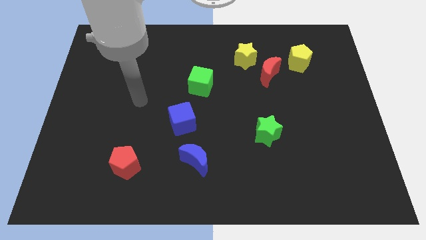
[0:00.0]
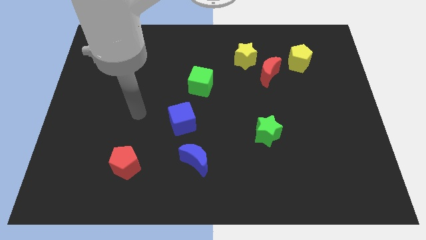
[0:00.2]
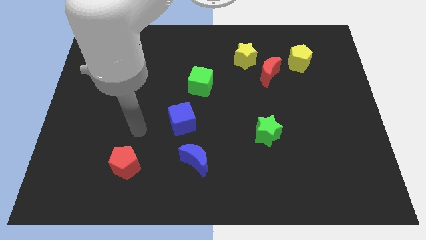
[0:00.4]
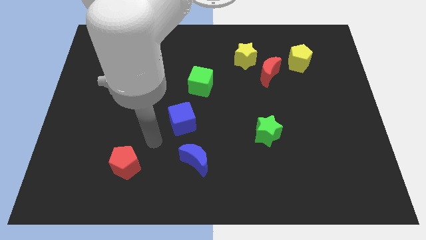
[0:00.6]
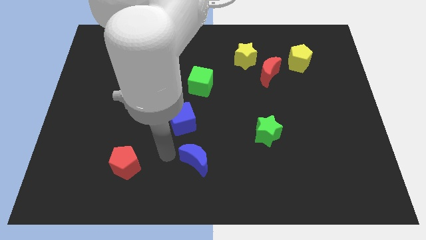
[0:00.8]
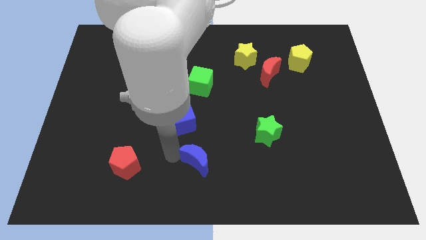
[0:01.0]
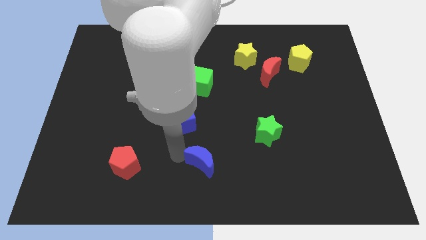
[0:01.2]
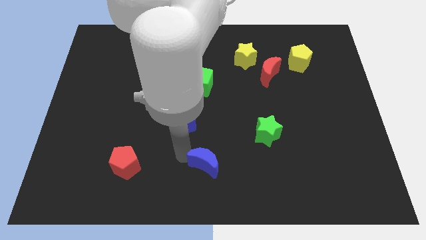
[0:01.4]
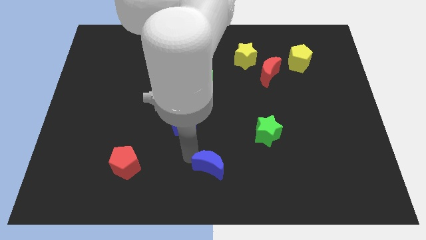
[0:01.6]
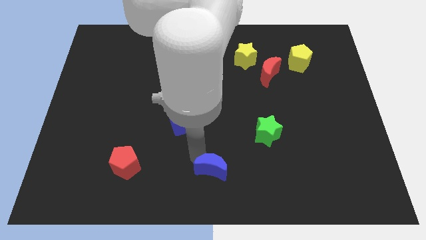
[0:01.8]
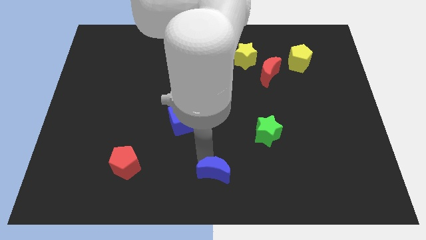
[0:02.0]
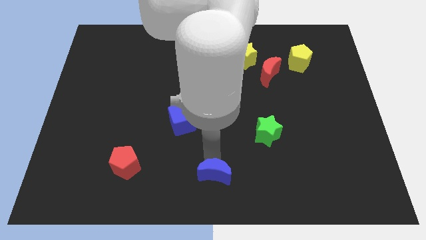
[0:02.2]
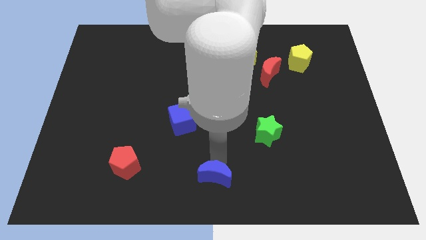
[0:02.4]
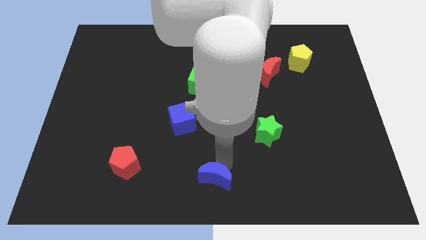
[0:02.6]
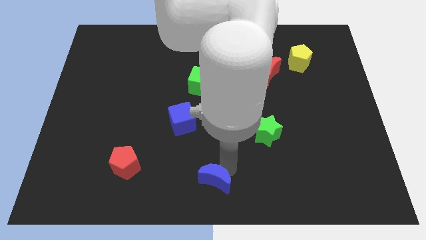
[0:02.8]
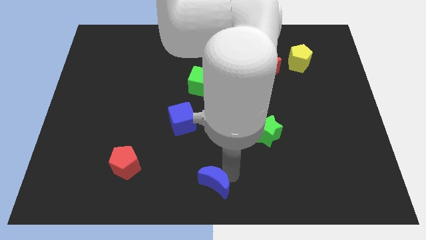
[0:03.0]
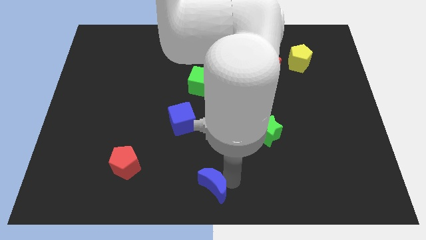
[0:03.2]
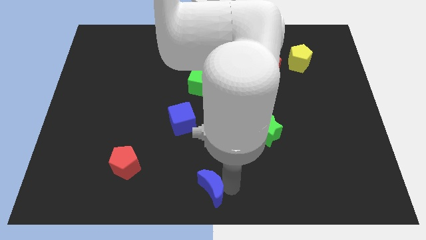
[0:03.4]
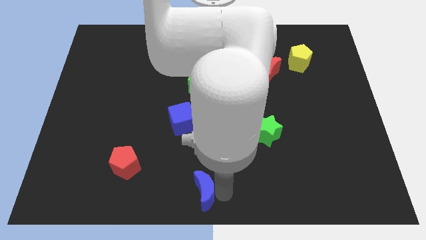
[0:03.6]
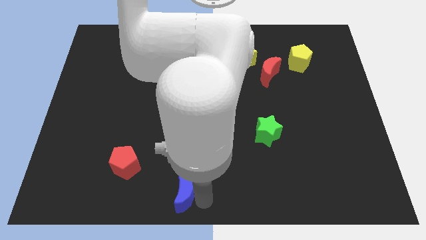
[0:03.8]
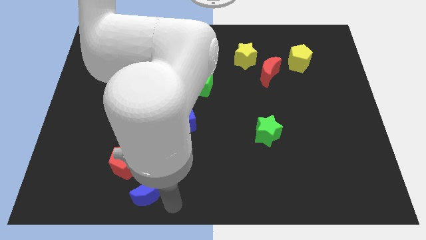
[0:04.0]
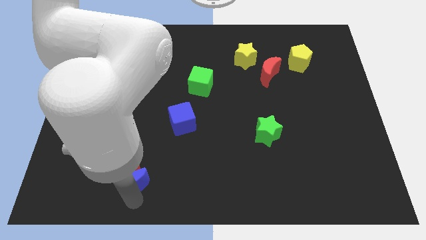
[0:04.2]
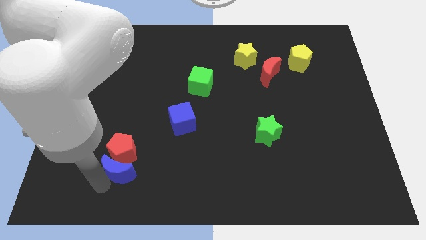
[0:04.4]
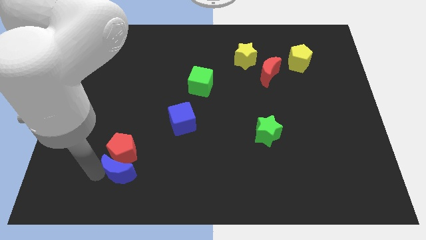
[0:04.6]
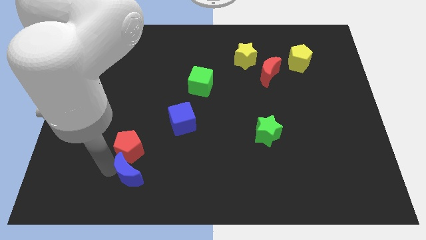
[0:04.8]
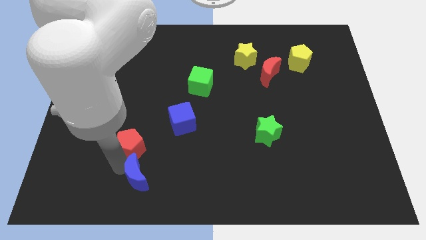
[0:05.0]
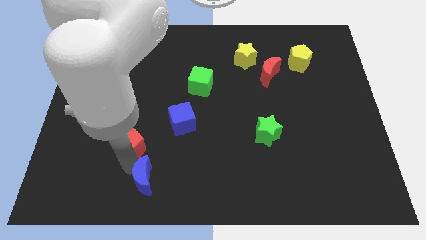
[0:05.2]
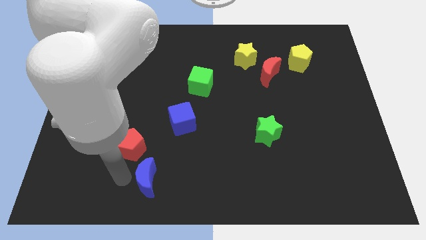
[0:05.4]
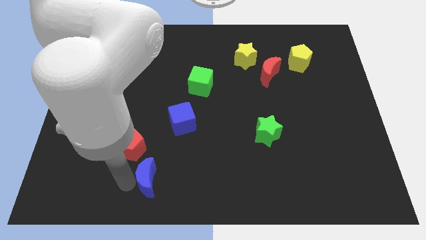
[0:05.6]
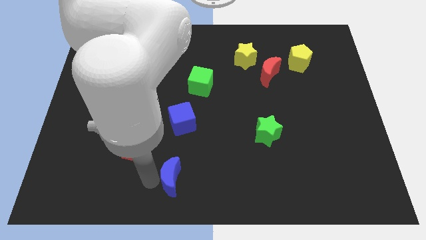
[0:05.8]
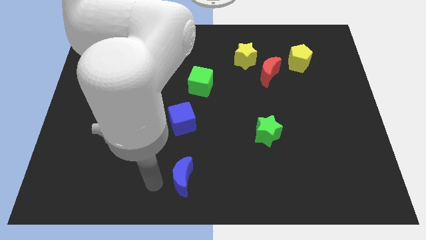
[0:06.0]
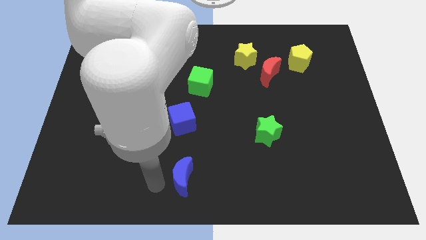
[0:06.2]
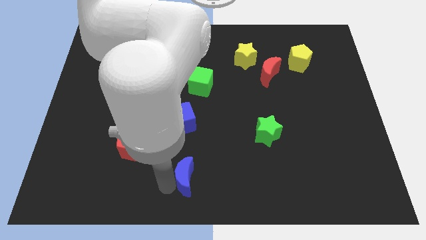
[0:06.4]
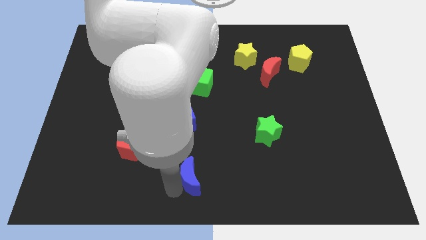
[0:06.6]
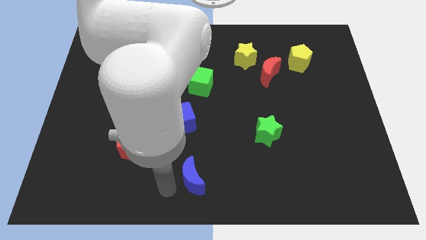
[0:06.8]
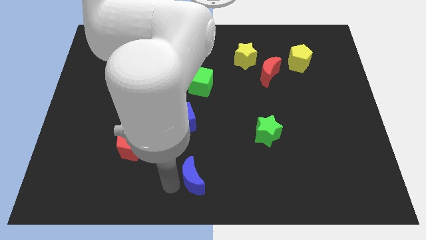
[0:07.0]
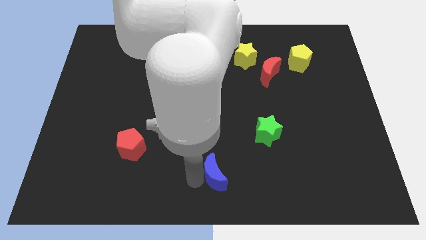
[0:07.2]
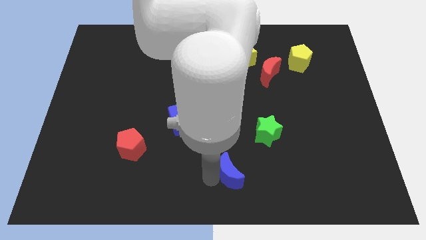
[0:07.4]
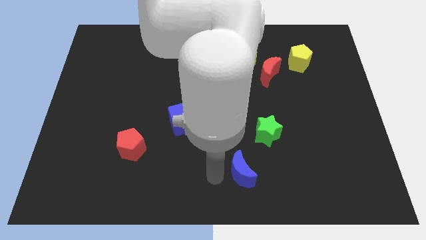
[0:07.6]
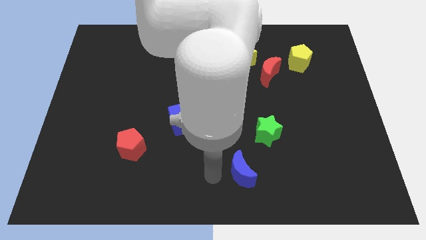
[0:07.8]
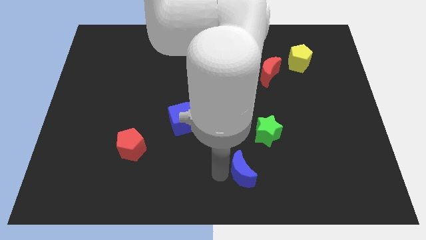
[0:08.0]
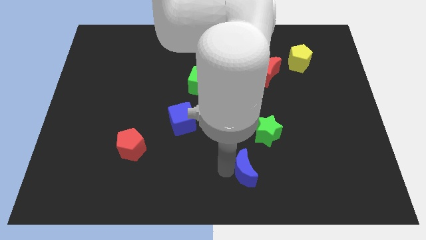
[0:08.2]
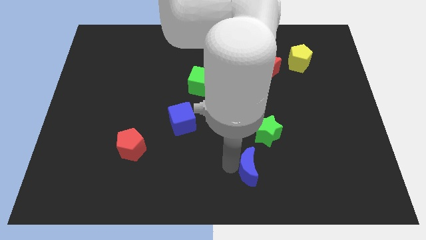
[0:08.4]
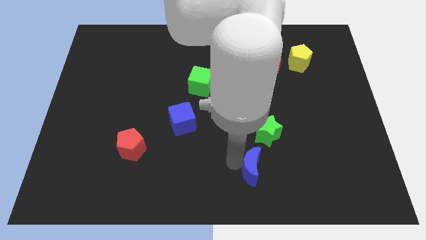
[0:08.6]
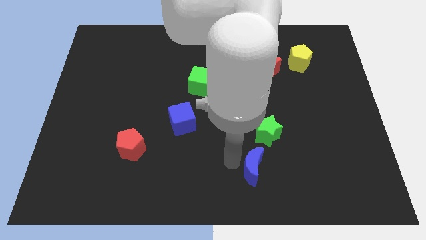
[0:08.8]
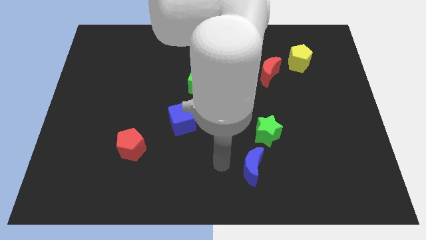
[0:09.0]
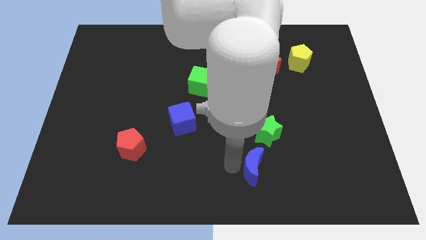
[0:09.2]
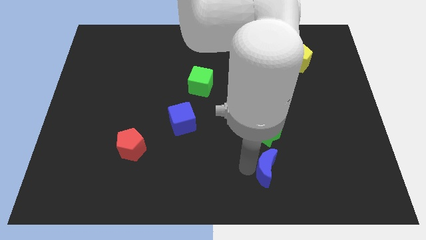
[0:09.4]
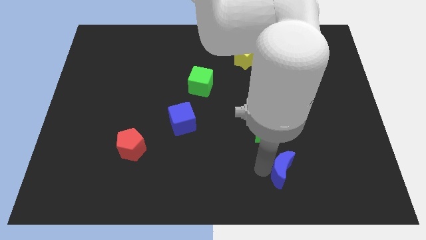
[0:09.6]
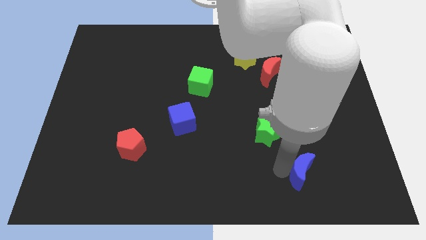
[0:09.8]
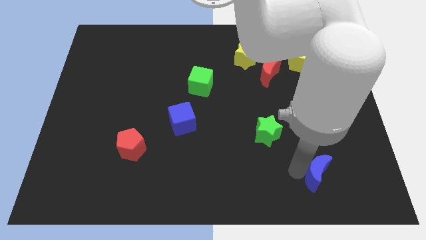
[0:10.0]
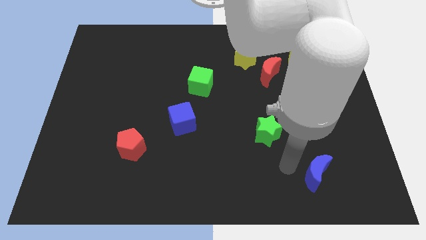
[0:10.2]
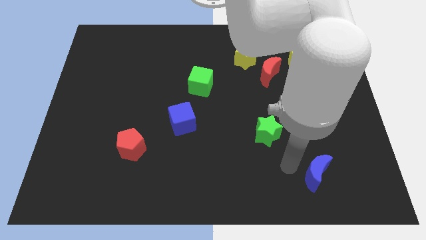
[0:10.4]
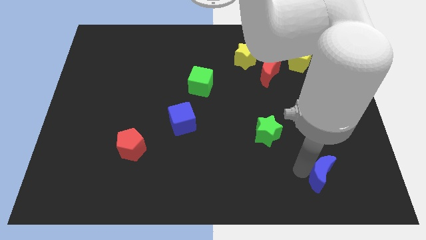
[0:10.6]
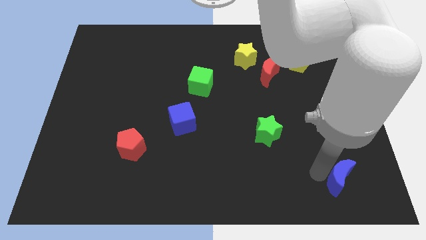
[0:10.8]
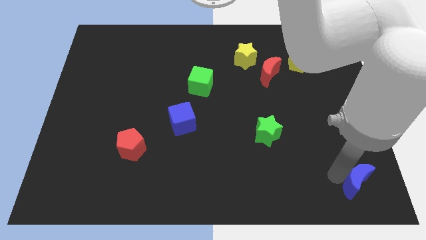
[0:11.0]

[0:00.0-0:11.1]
move the blue moon to the bottom right of the board

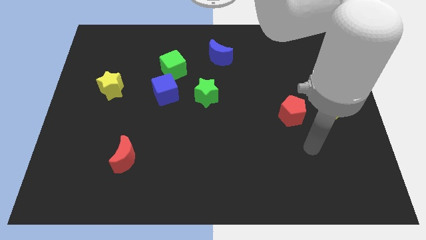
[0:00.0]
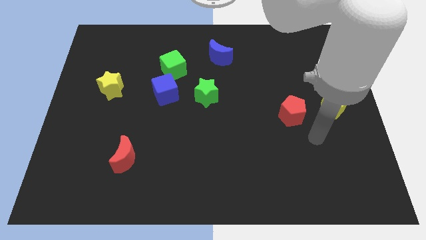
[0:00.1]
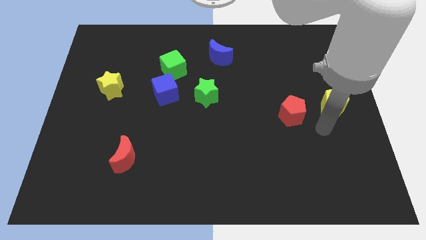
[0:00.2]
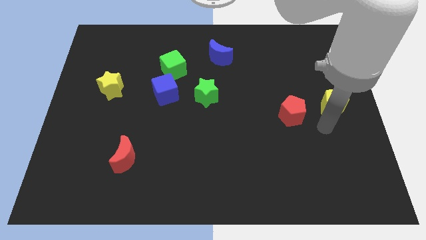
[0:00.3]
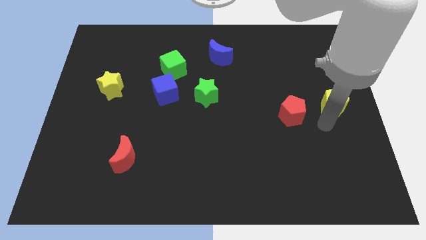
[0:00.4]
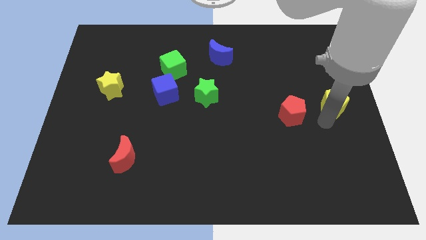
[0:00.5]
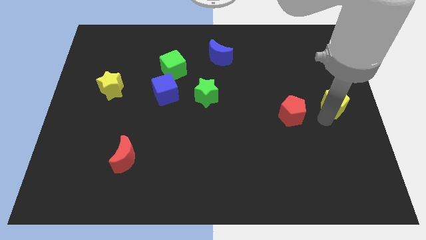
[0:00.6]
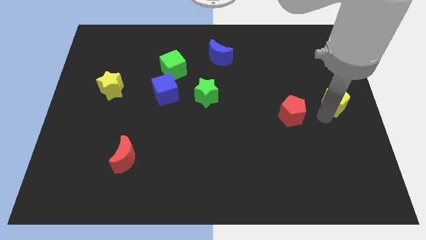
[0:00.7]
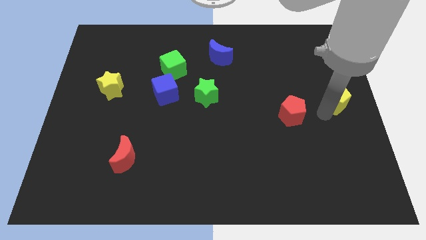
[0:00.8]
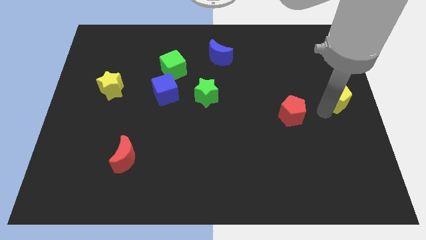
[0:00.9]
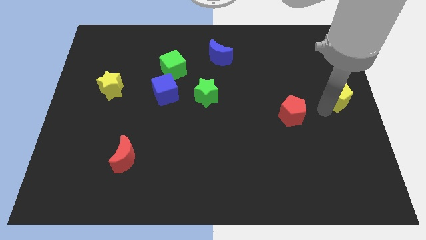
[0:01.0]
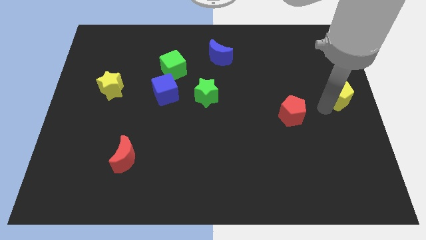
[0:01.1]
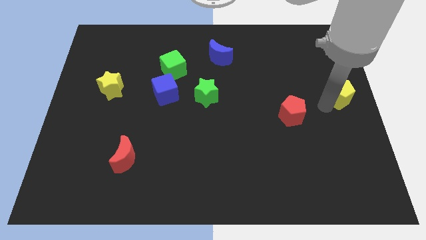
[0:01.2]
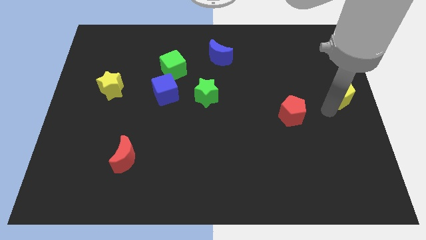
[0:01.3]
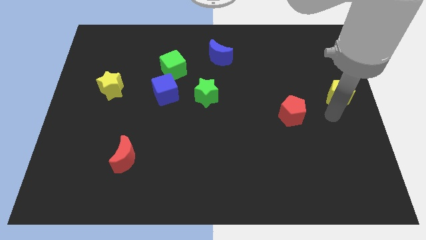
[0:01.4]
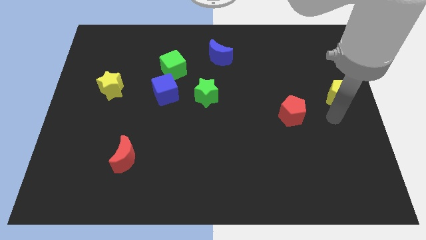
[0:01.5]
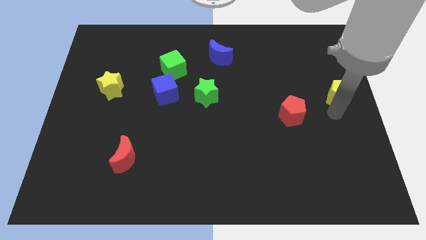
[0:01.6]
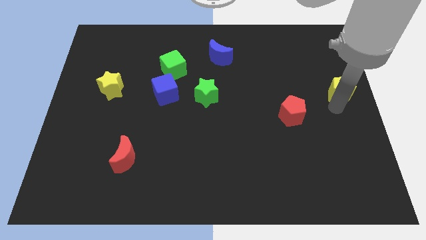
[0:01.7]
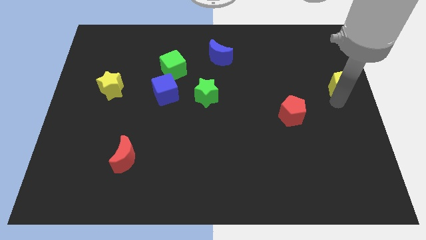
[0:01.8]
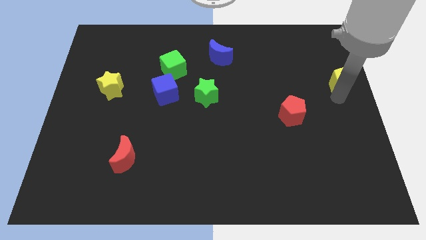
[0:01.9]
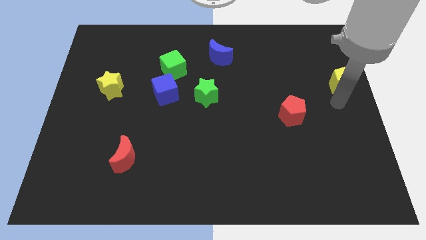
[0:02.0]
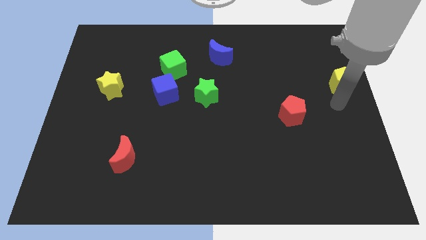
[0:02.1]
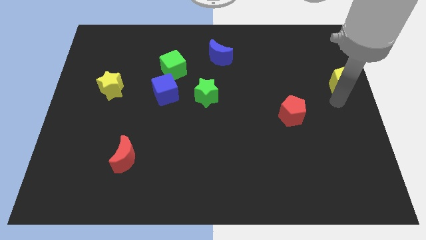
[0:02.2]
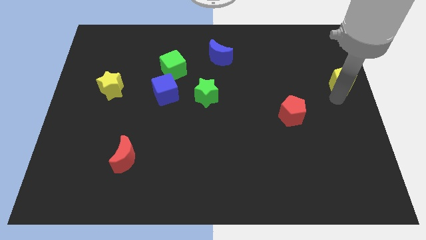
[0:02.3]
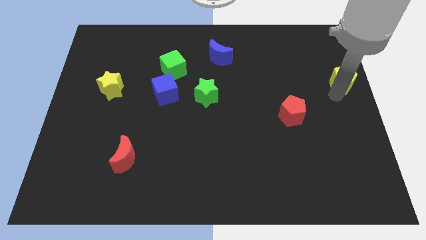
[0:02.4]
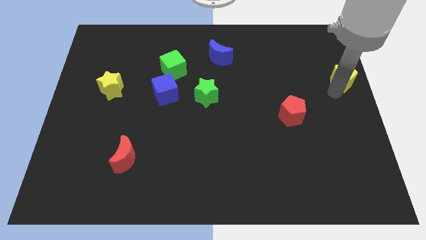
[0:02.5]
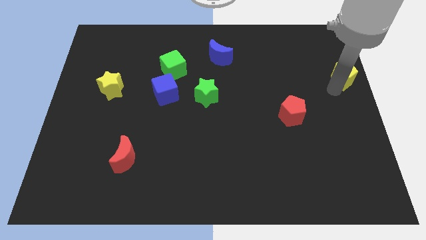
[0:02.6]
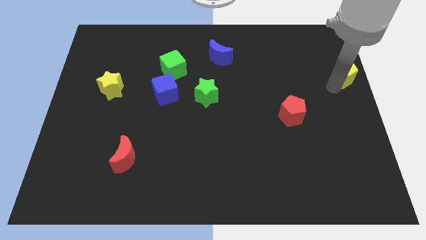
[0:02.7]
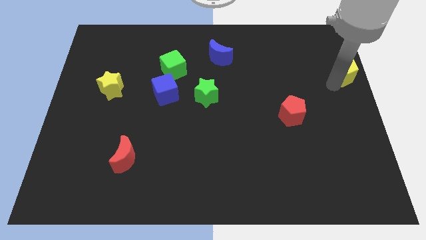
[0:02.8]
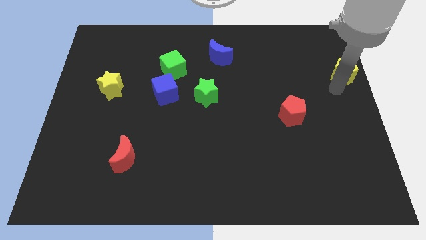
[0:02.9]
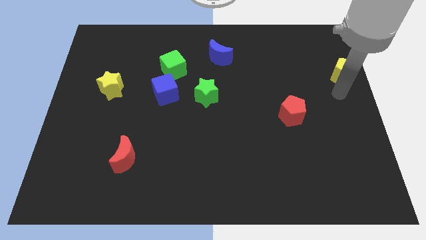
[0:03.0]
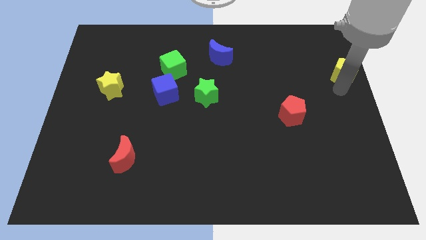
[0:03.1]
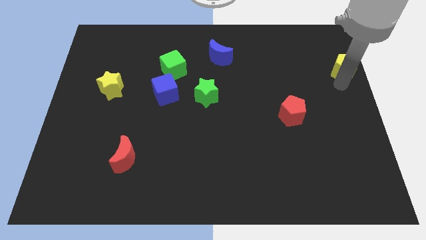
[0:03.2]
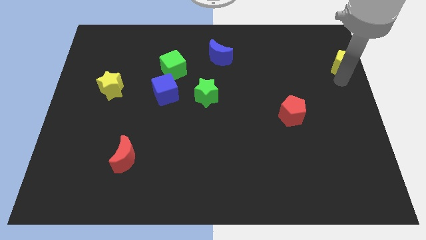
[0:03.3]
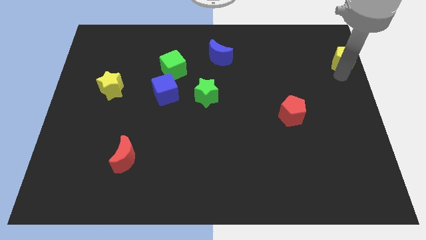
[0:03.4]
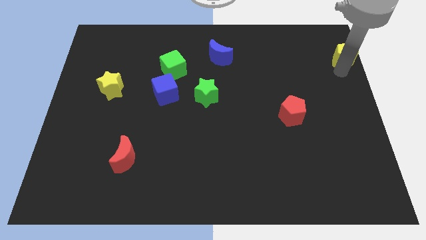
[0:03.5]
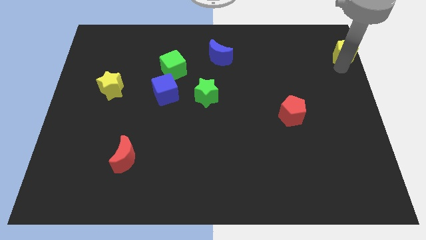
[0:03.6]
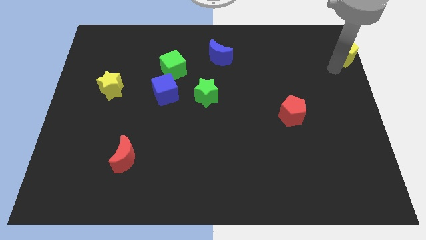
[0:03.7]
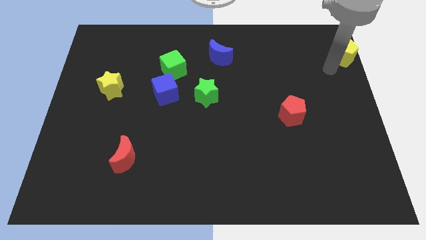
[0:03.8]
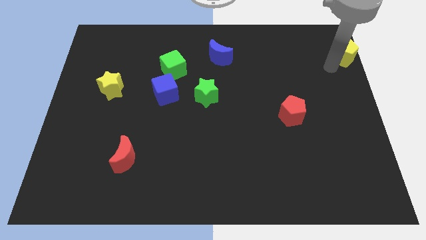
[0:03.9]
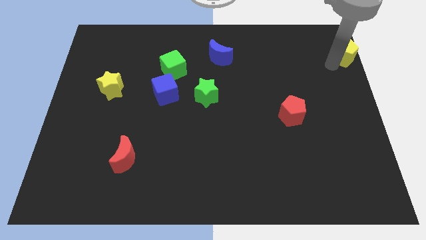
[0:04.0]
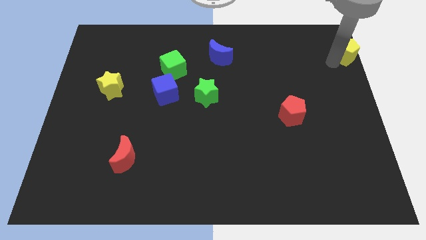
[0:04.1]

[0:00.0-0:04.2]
push the yellow pentagon to the top right
